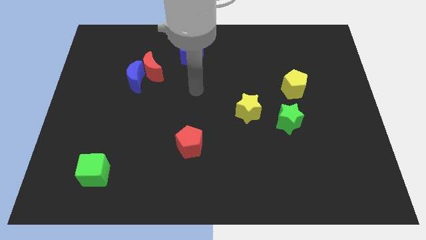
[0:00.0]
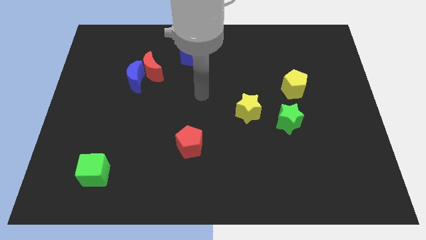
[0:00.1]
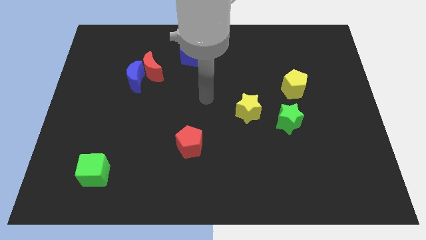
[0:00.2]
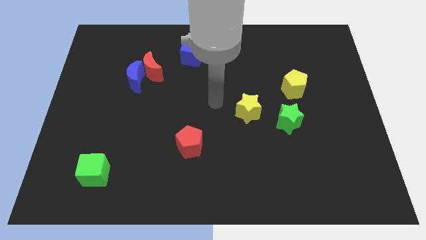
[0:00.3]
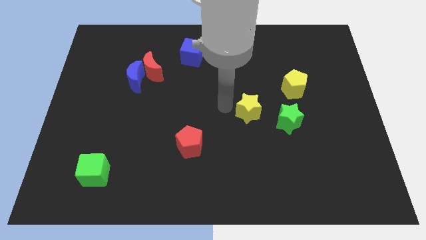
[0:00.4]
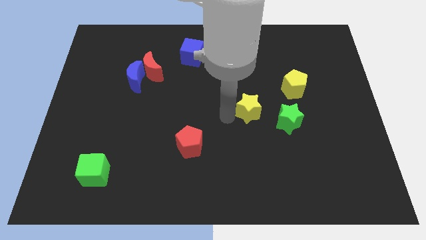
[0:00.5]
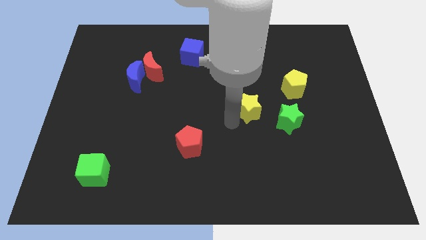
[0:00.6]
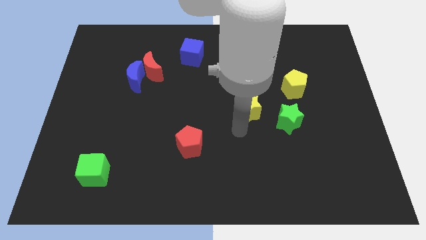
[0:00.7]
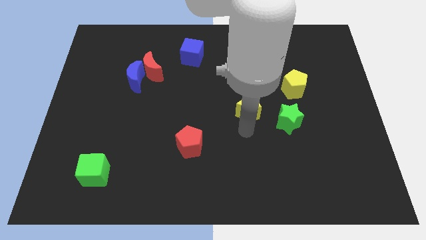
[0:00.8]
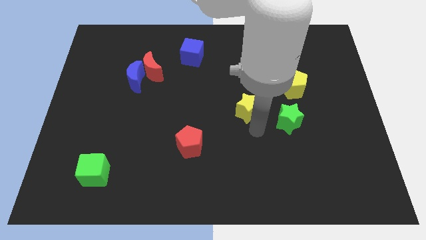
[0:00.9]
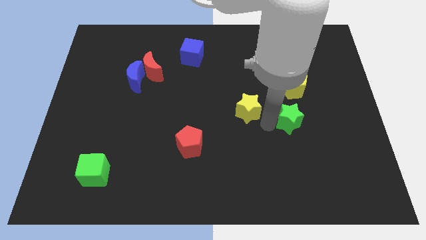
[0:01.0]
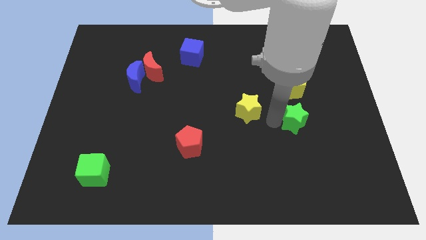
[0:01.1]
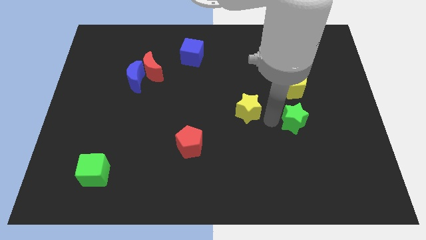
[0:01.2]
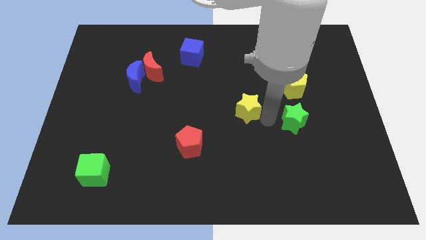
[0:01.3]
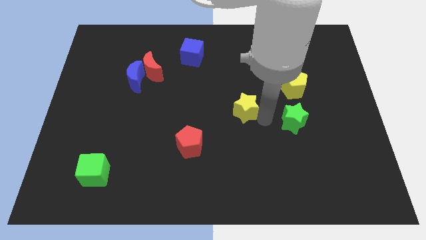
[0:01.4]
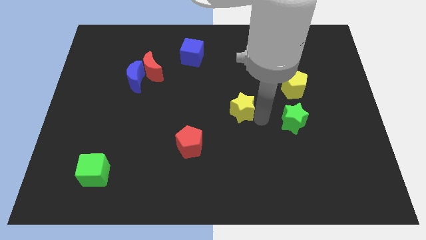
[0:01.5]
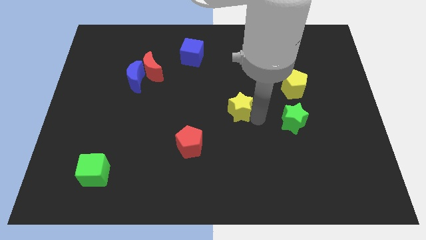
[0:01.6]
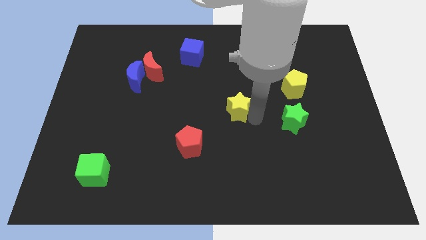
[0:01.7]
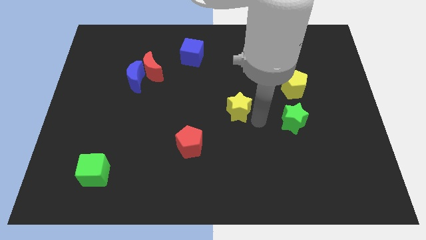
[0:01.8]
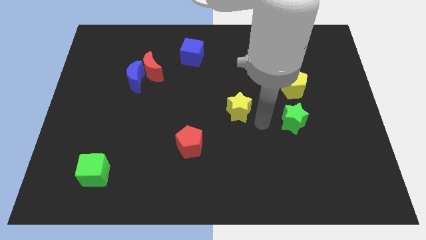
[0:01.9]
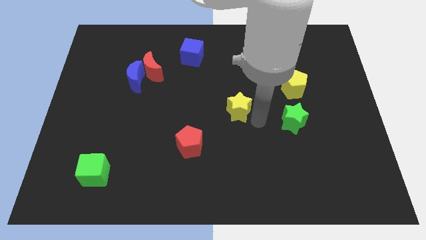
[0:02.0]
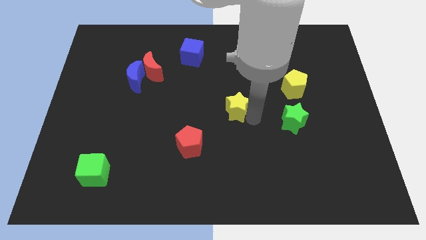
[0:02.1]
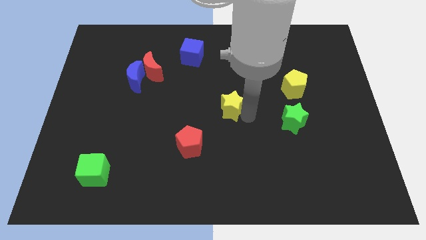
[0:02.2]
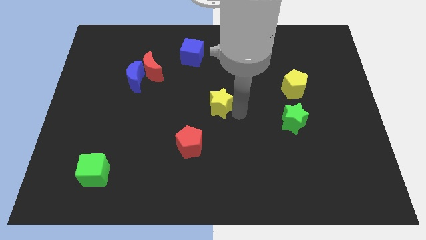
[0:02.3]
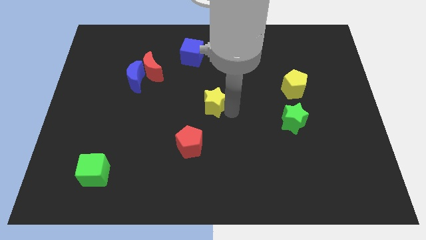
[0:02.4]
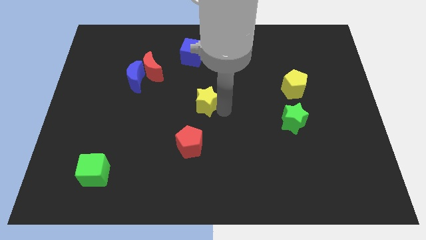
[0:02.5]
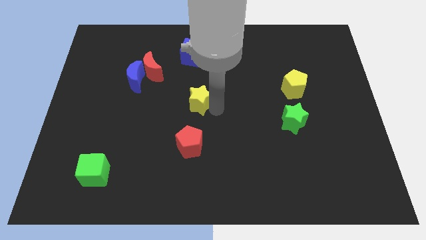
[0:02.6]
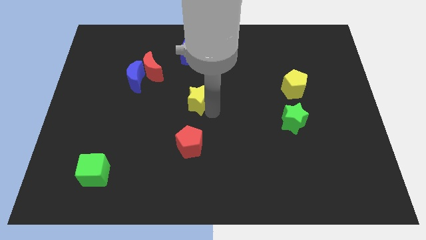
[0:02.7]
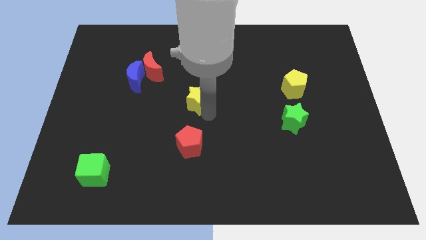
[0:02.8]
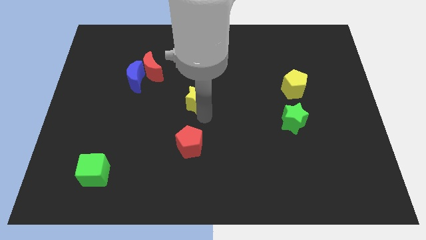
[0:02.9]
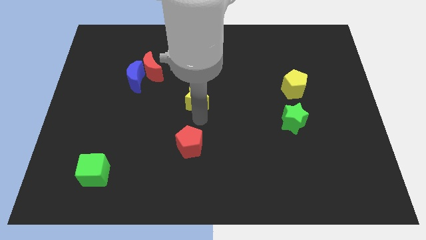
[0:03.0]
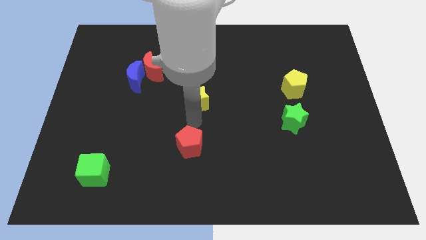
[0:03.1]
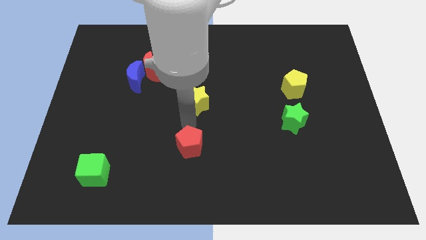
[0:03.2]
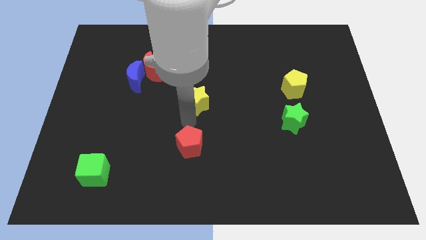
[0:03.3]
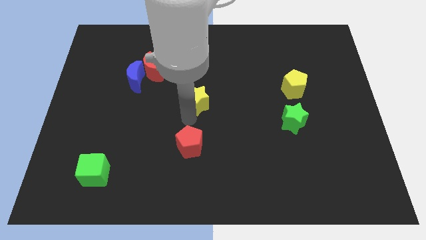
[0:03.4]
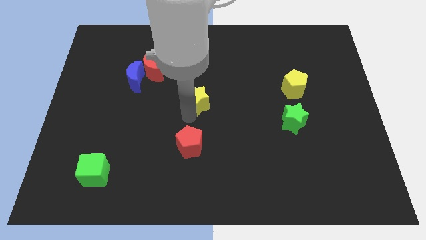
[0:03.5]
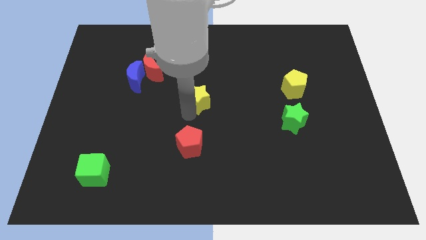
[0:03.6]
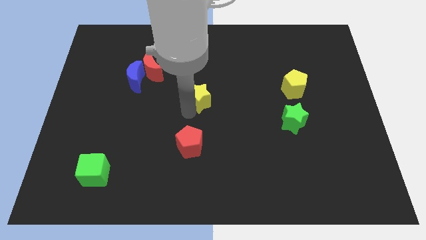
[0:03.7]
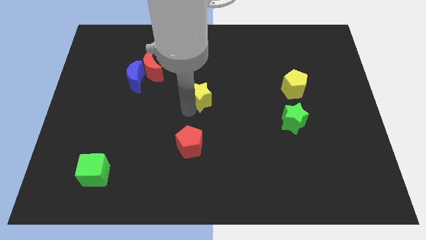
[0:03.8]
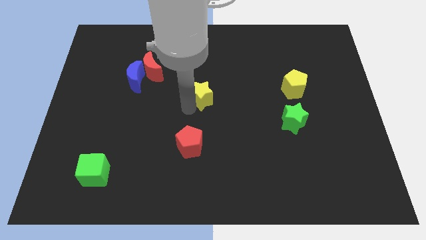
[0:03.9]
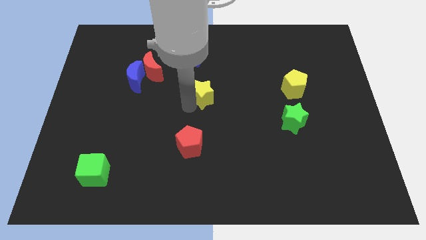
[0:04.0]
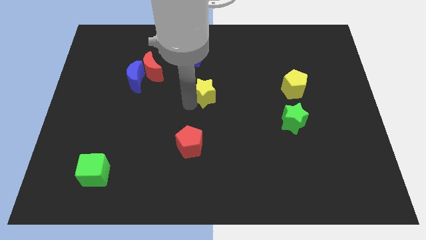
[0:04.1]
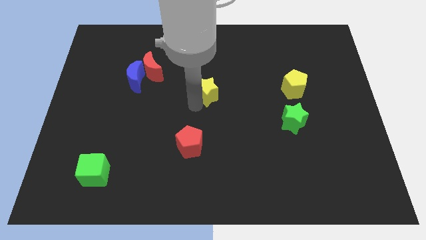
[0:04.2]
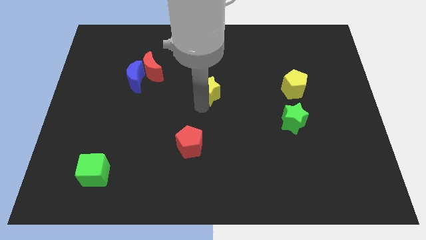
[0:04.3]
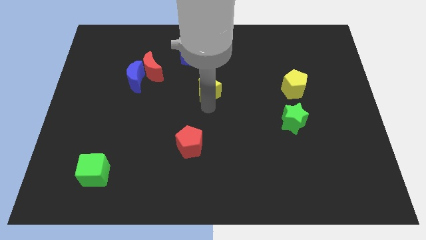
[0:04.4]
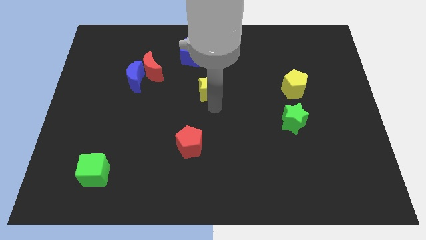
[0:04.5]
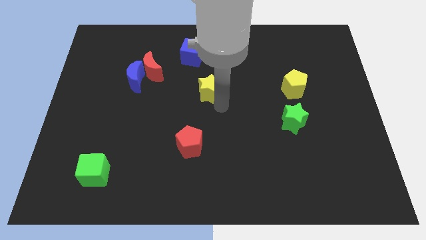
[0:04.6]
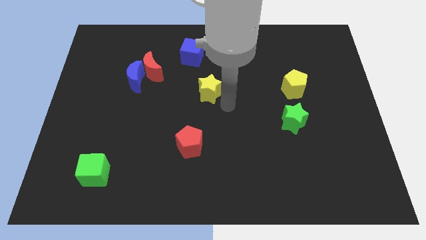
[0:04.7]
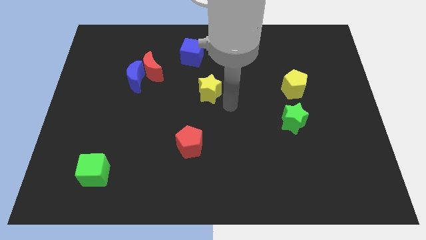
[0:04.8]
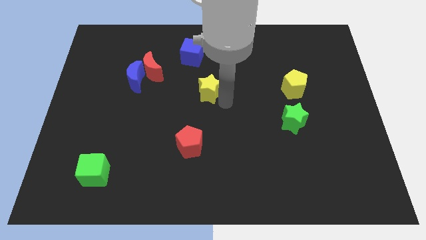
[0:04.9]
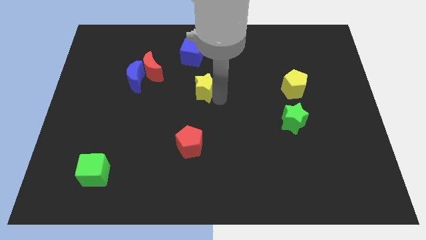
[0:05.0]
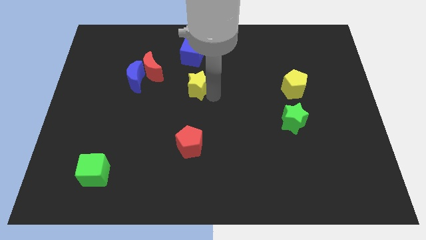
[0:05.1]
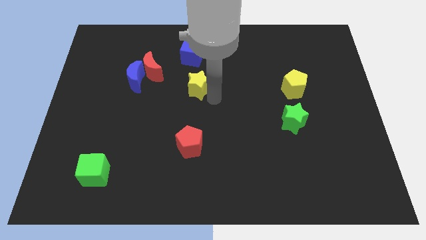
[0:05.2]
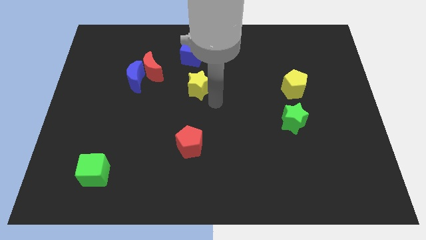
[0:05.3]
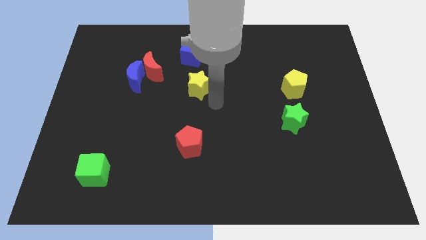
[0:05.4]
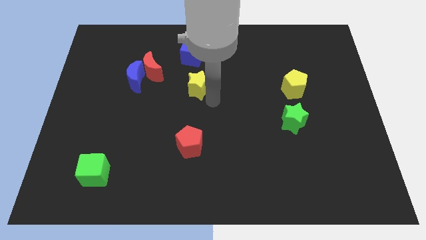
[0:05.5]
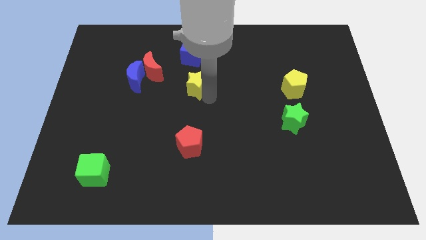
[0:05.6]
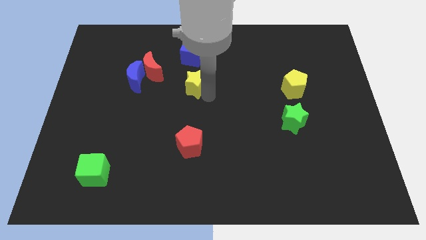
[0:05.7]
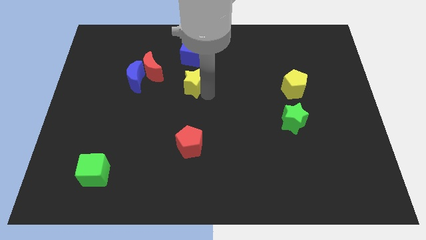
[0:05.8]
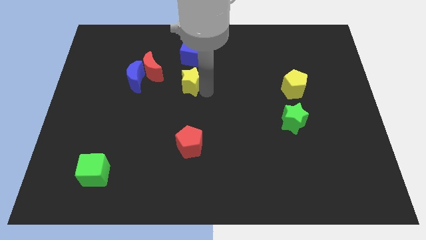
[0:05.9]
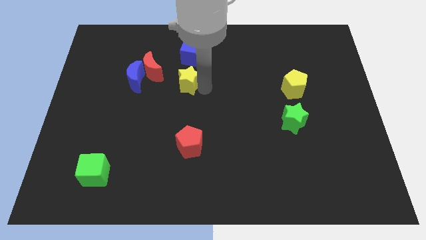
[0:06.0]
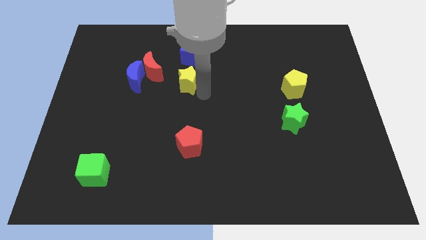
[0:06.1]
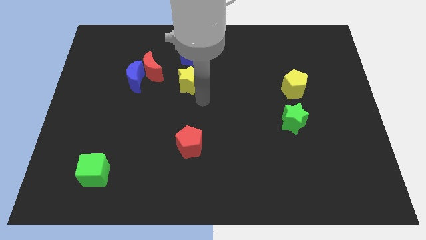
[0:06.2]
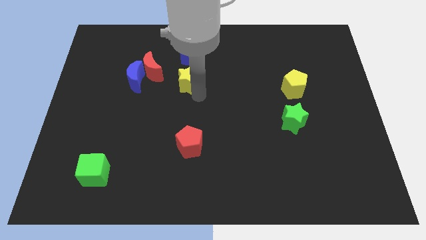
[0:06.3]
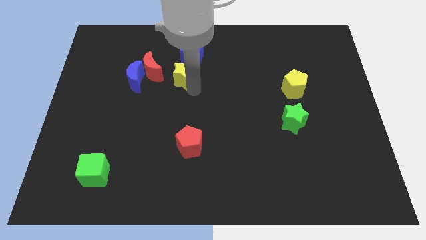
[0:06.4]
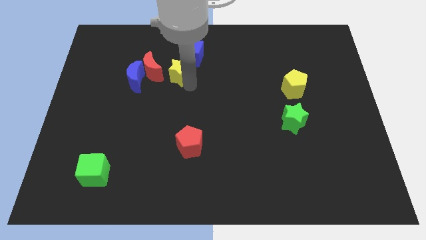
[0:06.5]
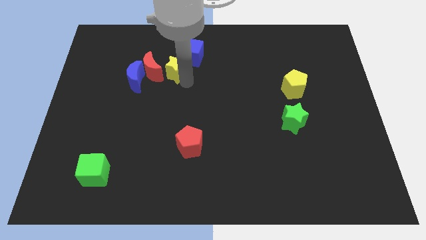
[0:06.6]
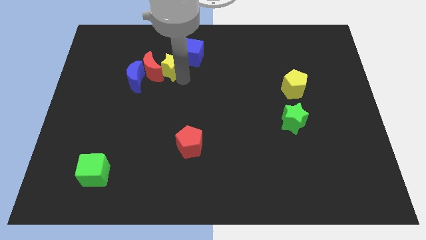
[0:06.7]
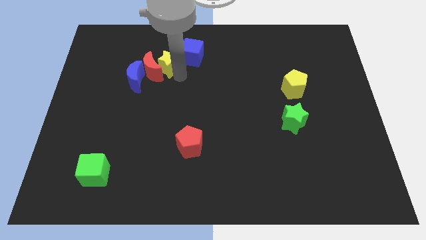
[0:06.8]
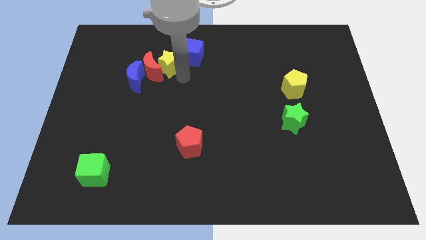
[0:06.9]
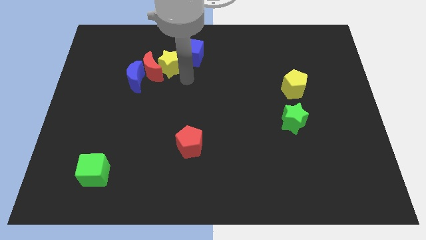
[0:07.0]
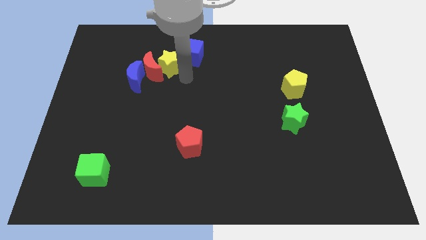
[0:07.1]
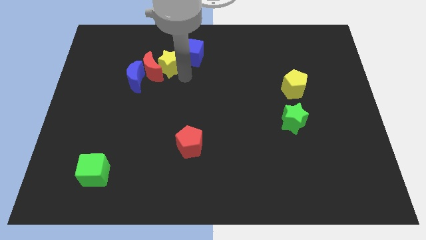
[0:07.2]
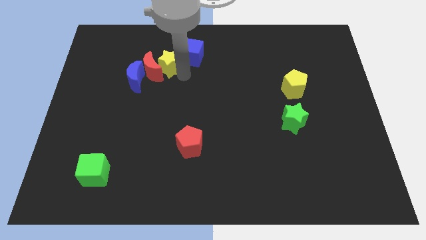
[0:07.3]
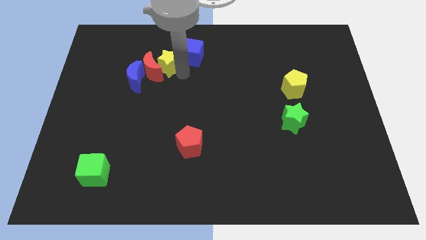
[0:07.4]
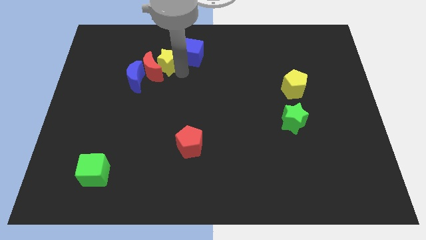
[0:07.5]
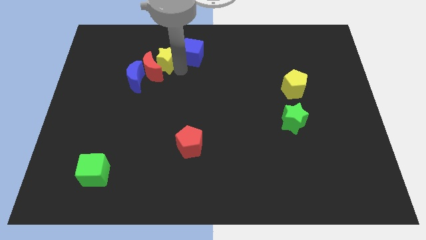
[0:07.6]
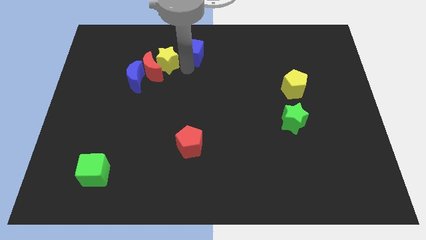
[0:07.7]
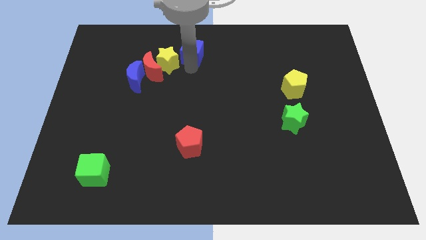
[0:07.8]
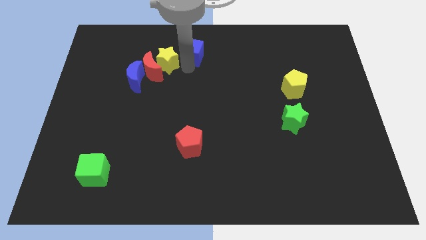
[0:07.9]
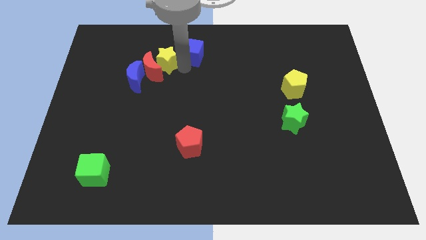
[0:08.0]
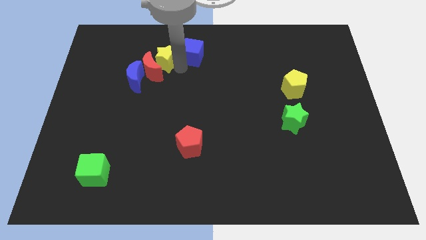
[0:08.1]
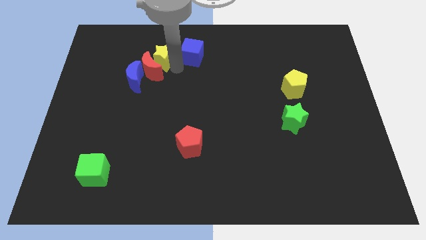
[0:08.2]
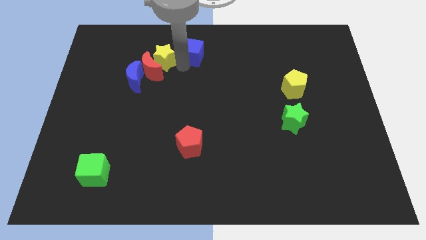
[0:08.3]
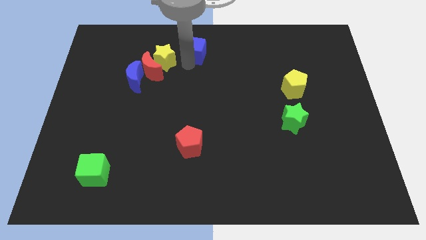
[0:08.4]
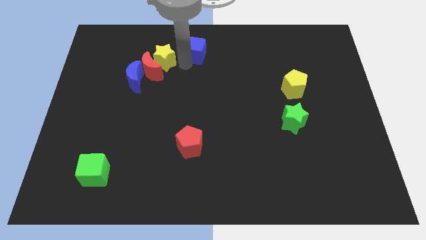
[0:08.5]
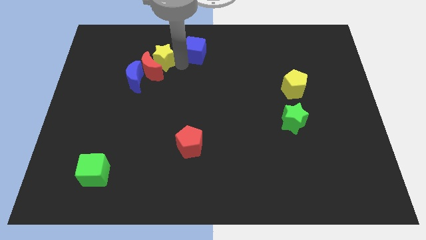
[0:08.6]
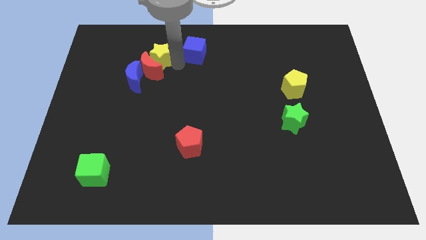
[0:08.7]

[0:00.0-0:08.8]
put the yellow star to the top left of the red moon
